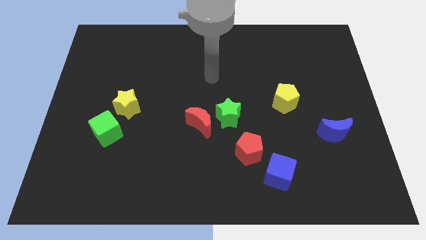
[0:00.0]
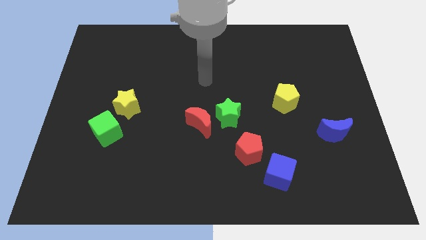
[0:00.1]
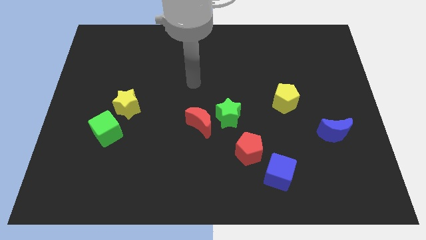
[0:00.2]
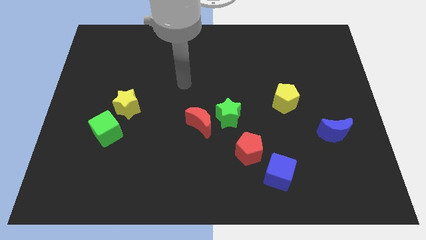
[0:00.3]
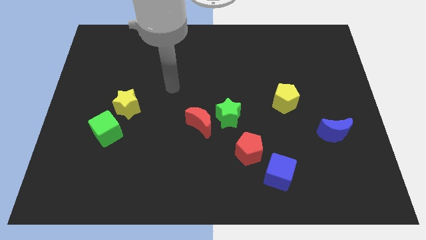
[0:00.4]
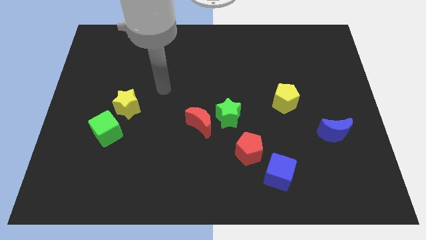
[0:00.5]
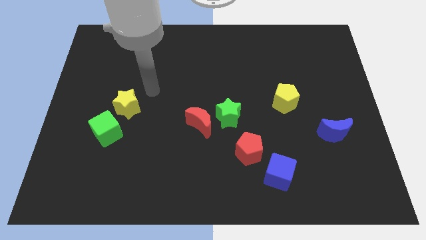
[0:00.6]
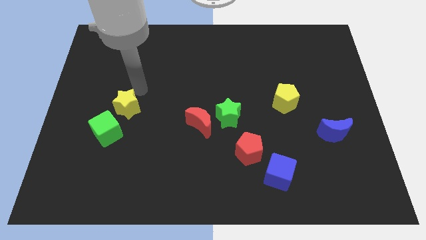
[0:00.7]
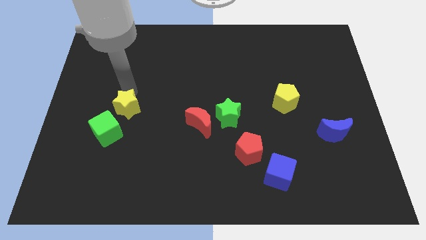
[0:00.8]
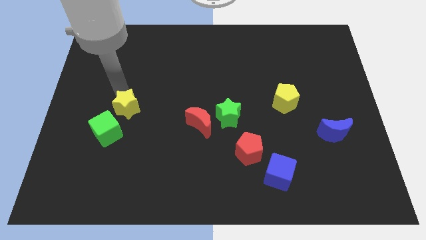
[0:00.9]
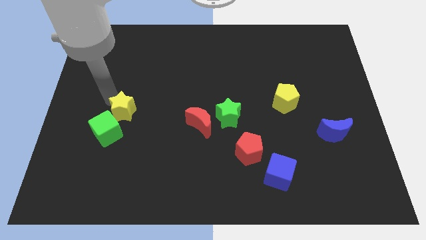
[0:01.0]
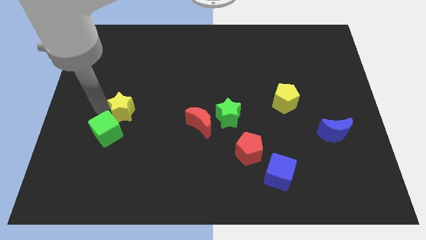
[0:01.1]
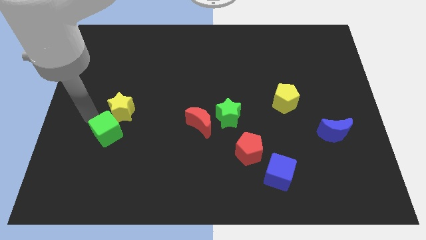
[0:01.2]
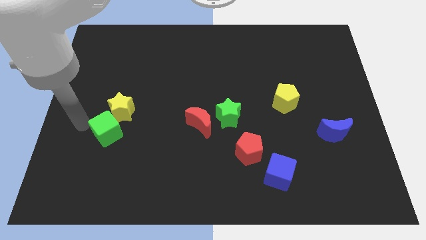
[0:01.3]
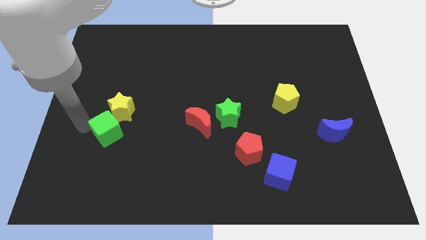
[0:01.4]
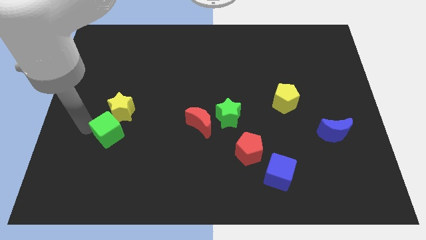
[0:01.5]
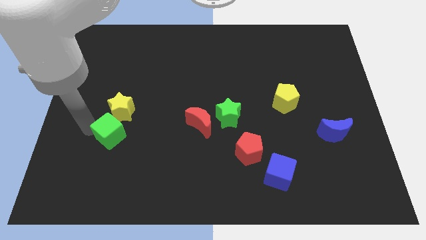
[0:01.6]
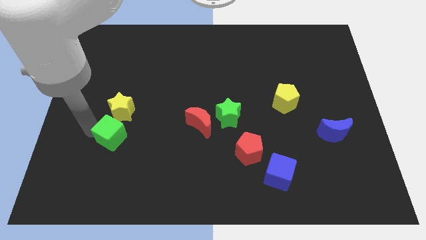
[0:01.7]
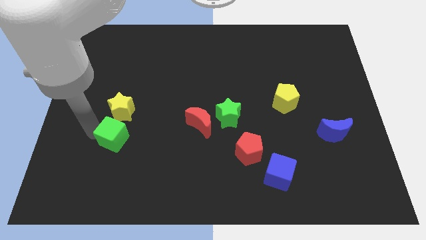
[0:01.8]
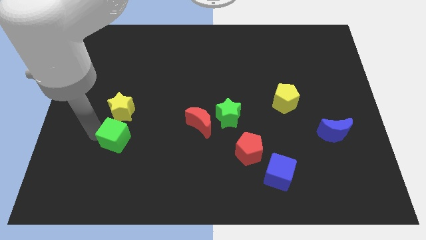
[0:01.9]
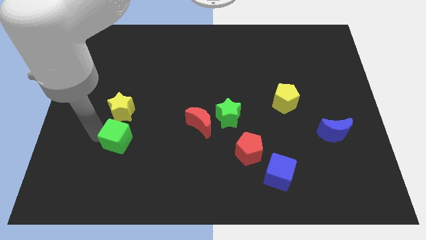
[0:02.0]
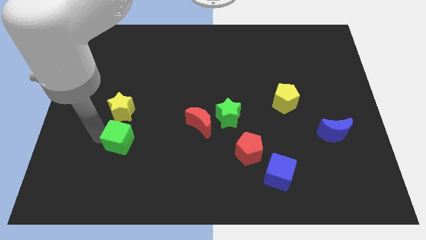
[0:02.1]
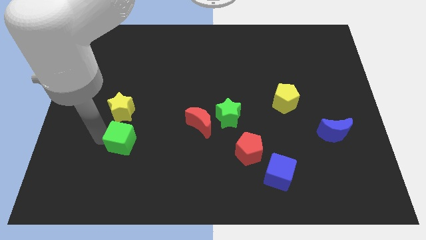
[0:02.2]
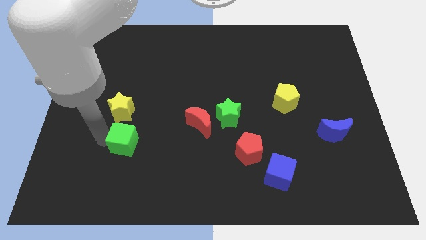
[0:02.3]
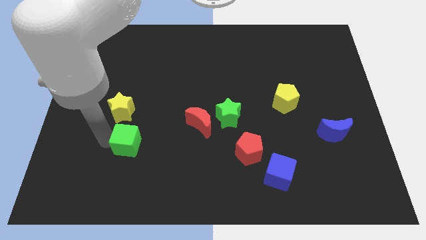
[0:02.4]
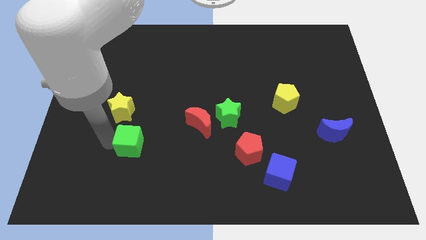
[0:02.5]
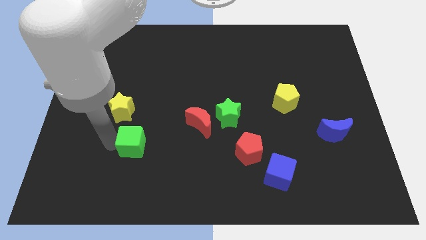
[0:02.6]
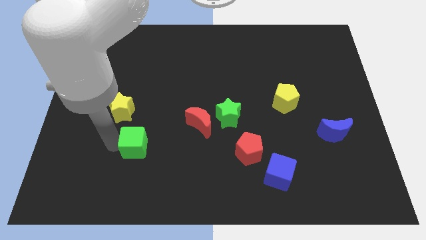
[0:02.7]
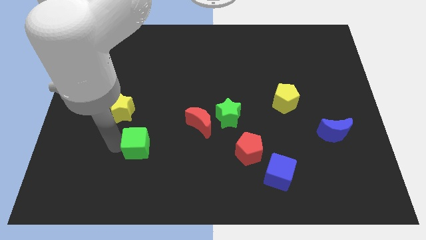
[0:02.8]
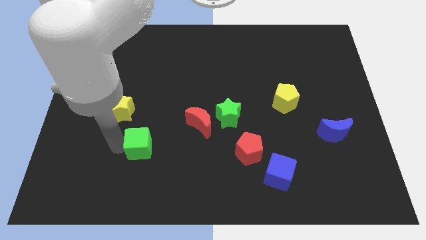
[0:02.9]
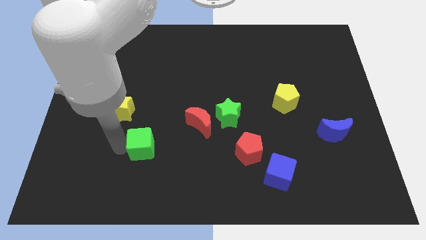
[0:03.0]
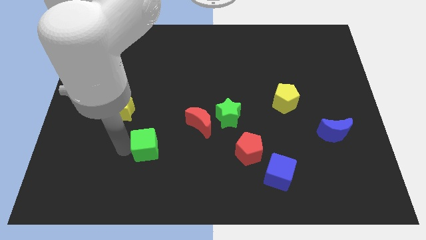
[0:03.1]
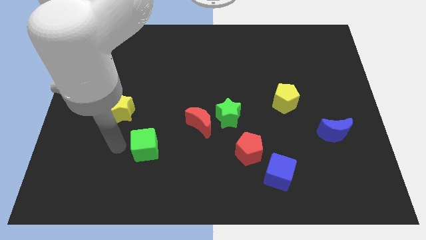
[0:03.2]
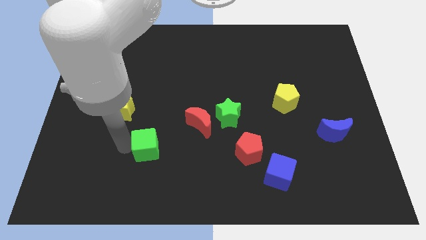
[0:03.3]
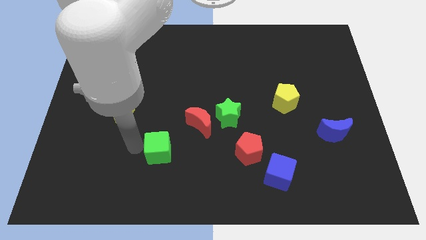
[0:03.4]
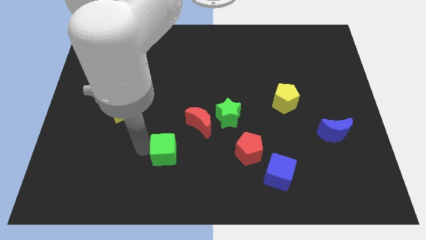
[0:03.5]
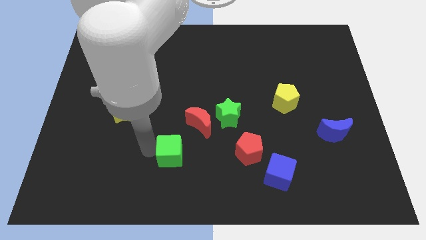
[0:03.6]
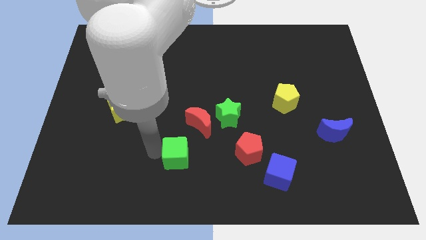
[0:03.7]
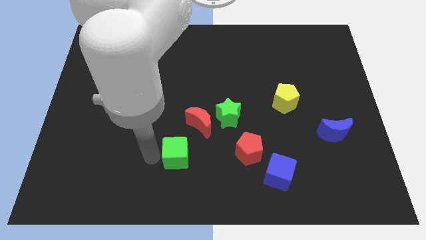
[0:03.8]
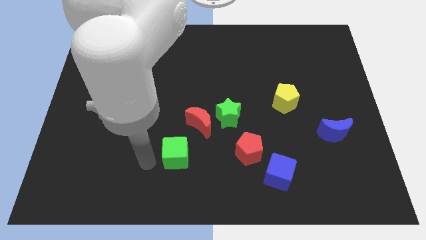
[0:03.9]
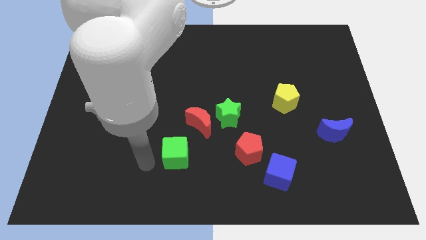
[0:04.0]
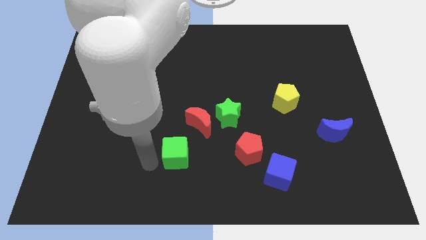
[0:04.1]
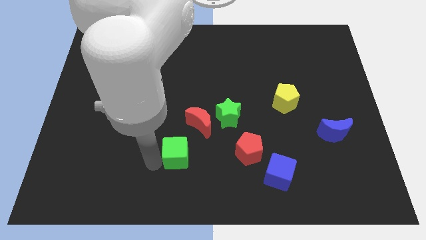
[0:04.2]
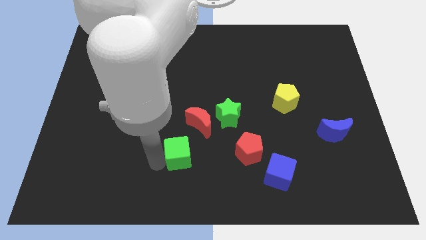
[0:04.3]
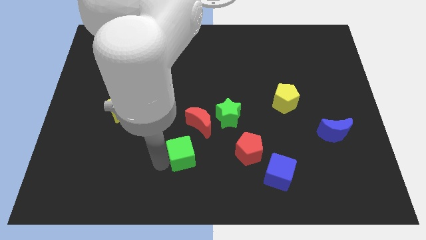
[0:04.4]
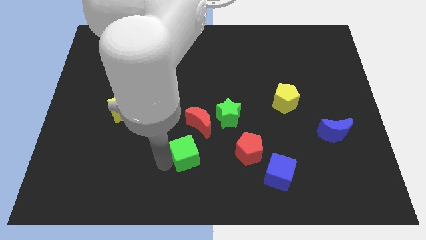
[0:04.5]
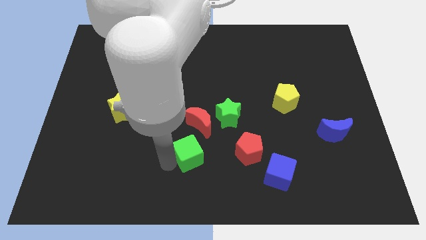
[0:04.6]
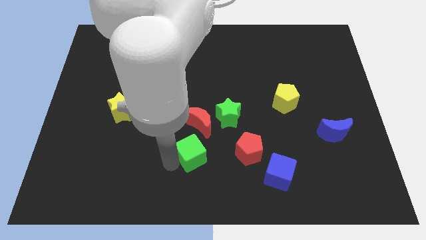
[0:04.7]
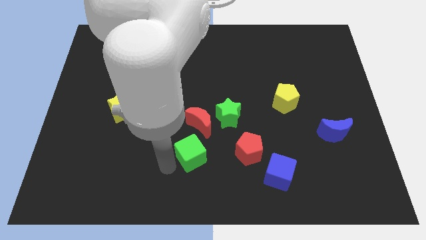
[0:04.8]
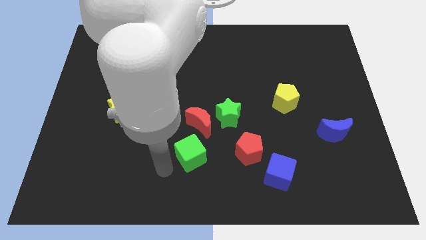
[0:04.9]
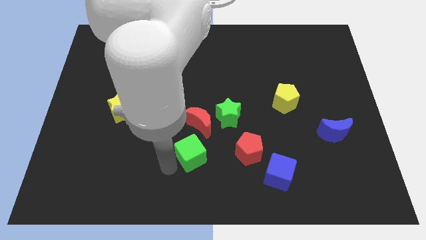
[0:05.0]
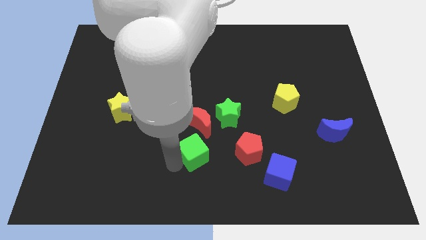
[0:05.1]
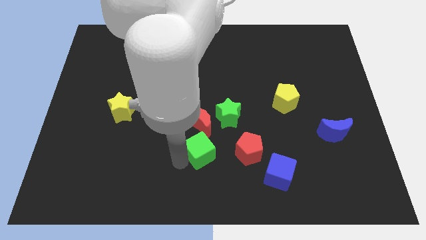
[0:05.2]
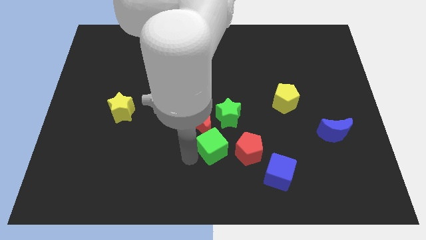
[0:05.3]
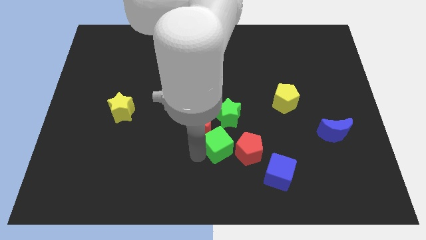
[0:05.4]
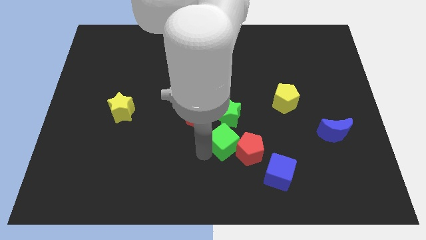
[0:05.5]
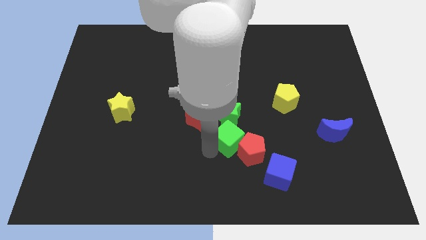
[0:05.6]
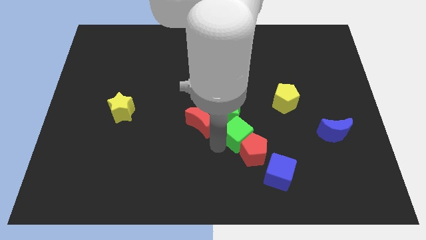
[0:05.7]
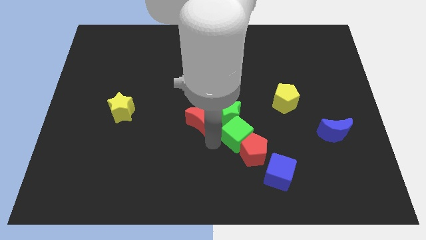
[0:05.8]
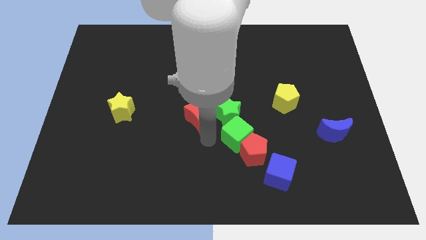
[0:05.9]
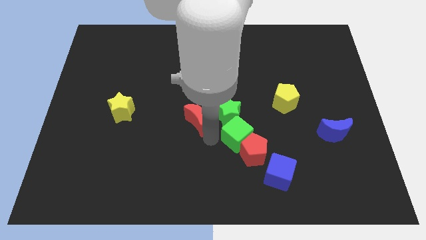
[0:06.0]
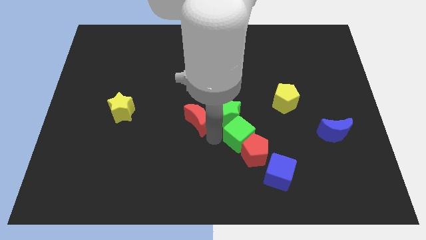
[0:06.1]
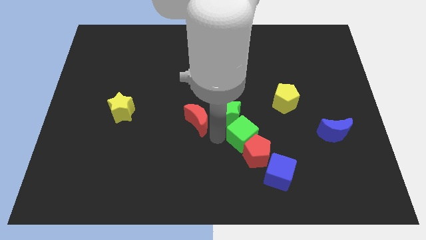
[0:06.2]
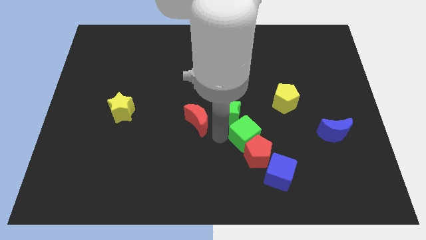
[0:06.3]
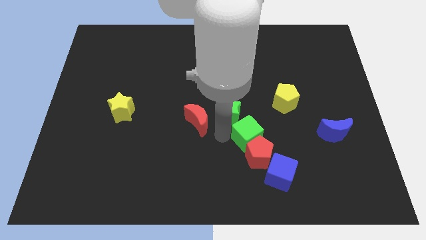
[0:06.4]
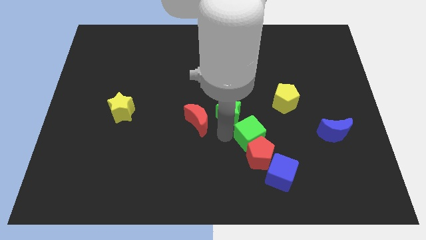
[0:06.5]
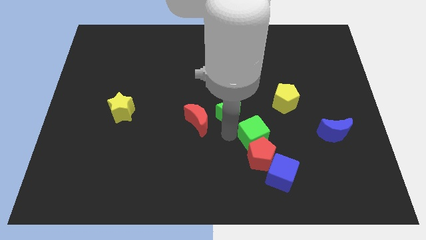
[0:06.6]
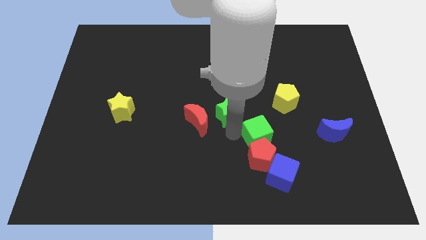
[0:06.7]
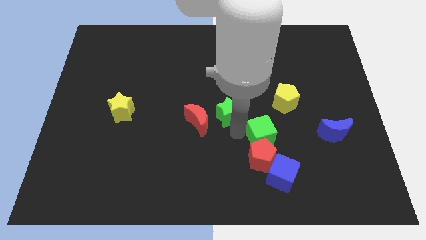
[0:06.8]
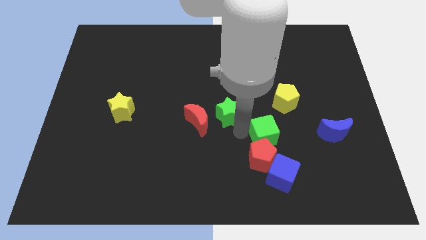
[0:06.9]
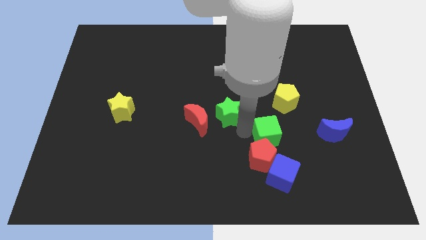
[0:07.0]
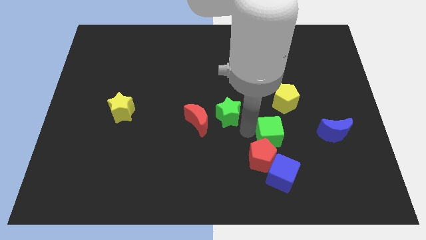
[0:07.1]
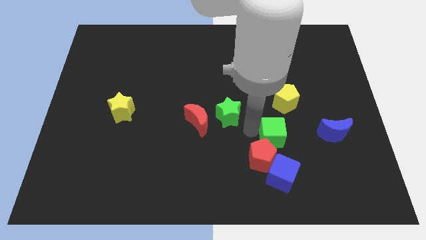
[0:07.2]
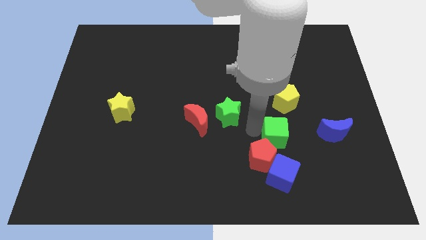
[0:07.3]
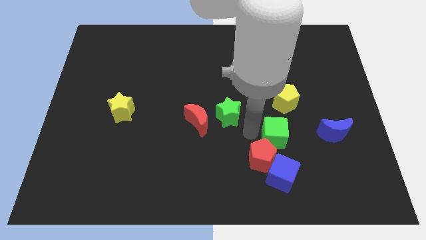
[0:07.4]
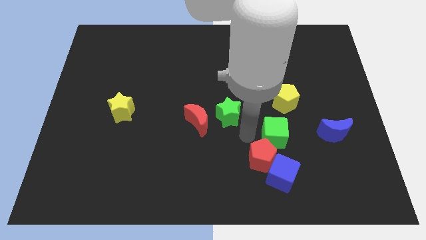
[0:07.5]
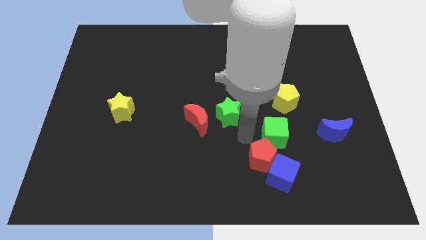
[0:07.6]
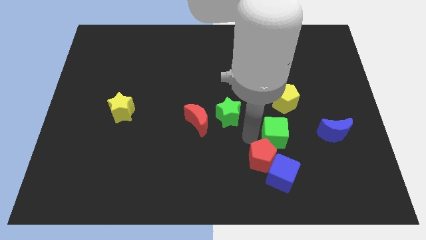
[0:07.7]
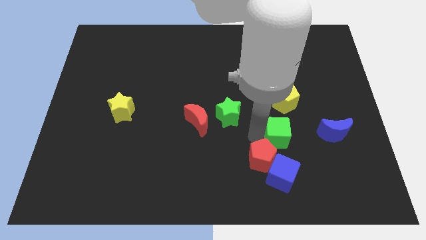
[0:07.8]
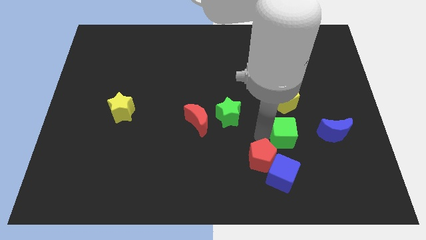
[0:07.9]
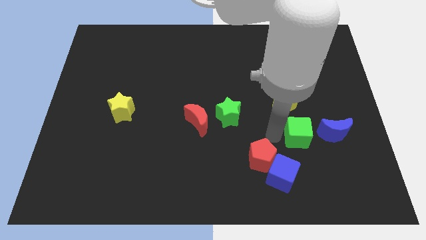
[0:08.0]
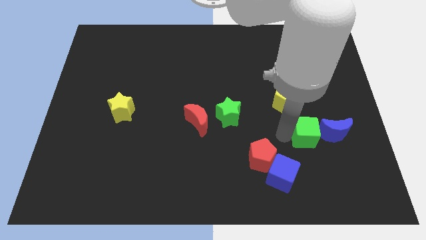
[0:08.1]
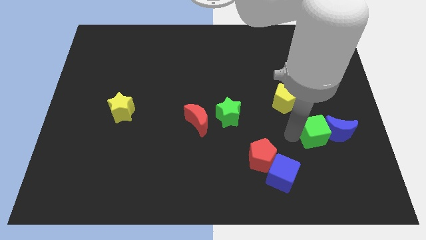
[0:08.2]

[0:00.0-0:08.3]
push the green cube next to the blue moon
